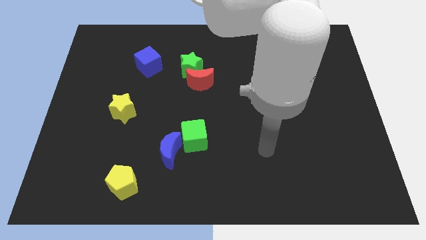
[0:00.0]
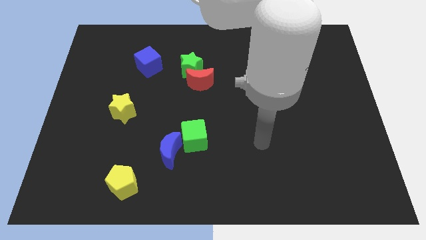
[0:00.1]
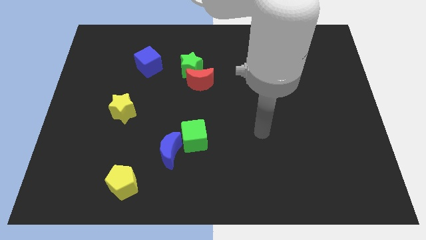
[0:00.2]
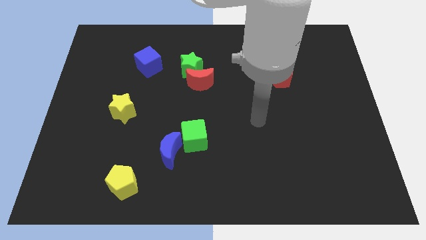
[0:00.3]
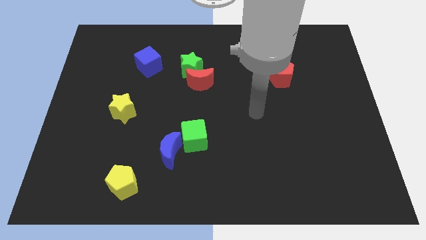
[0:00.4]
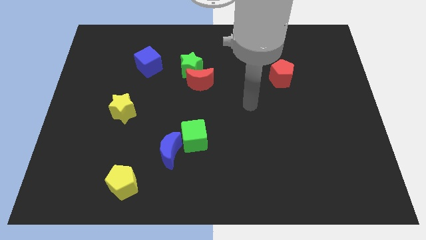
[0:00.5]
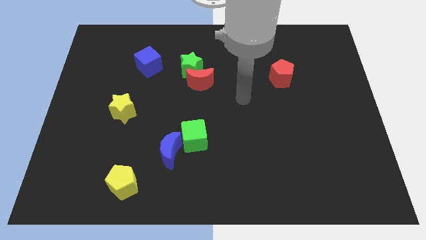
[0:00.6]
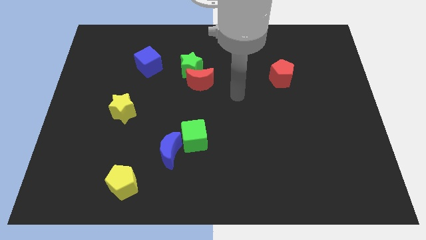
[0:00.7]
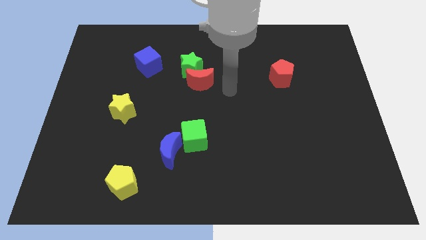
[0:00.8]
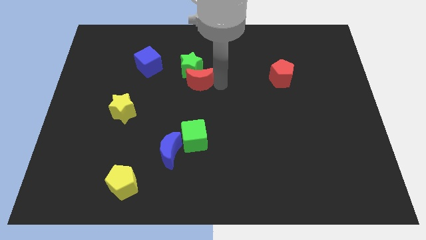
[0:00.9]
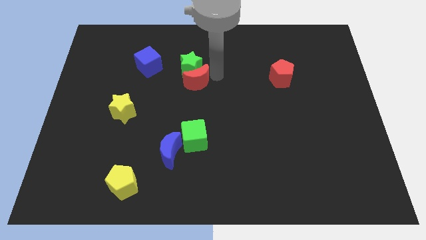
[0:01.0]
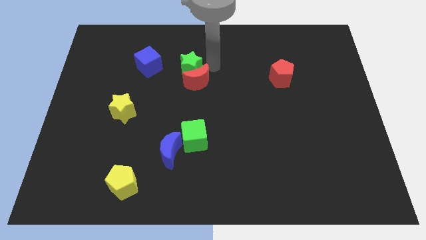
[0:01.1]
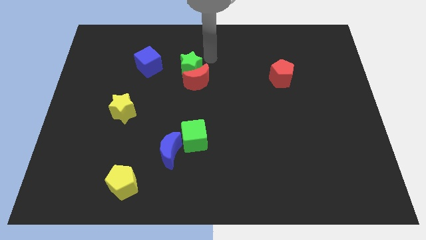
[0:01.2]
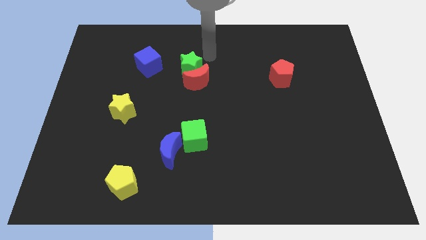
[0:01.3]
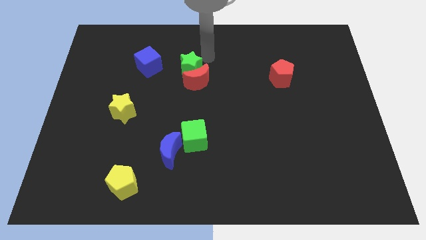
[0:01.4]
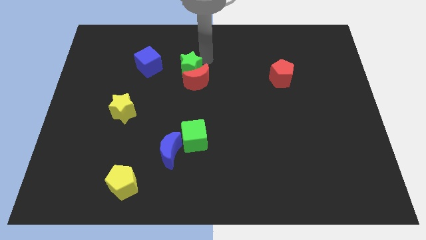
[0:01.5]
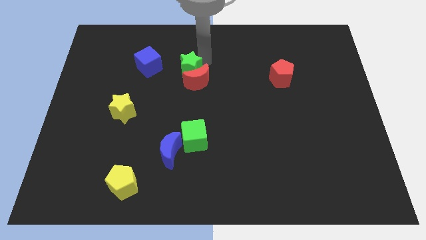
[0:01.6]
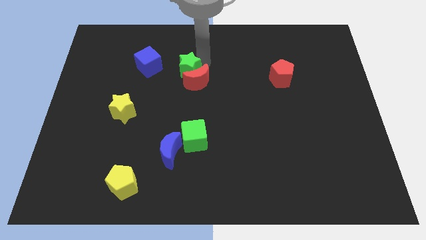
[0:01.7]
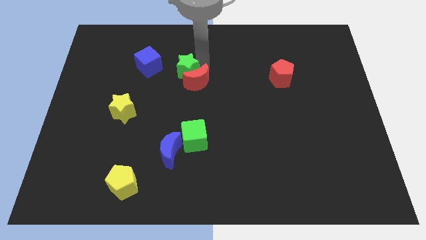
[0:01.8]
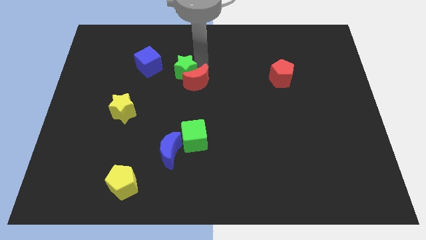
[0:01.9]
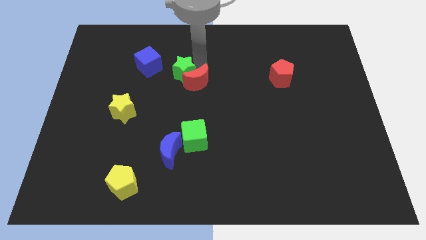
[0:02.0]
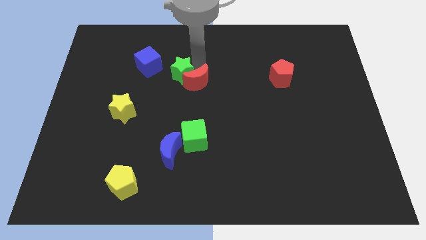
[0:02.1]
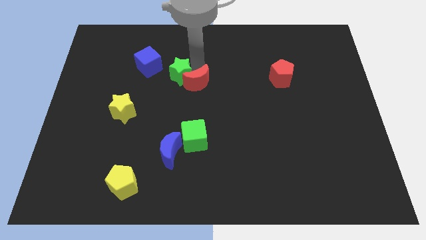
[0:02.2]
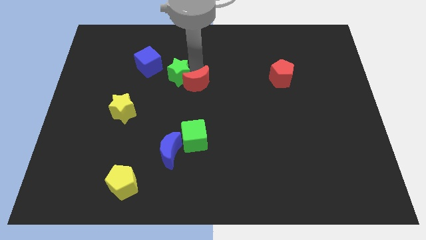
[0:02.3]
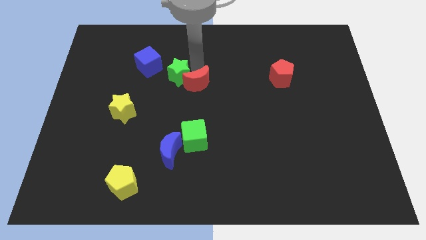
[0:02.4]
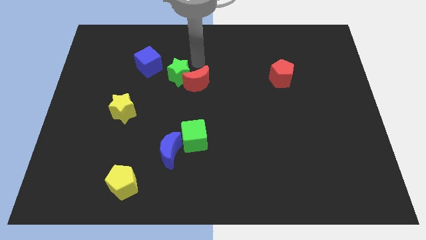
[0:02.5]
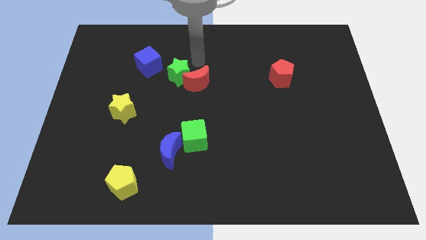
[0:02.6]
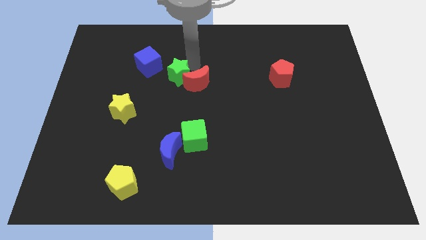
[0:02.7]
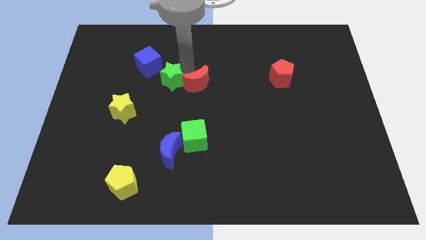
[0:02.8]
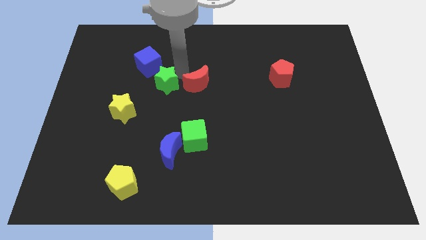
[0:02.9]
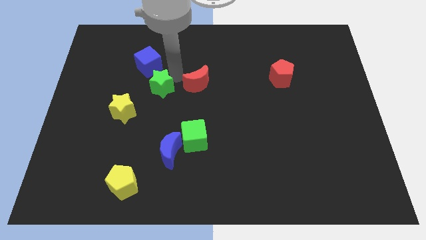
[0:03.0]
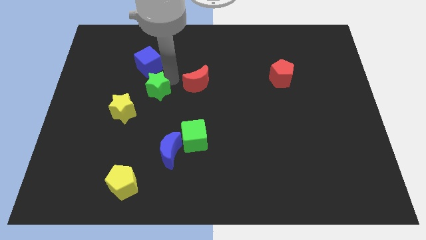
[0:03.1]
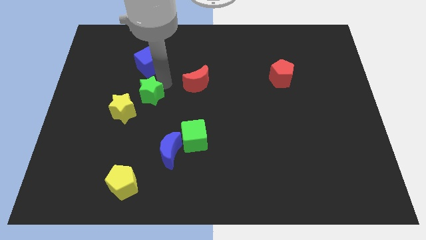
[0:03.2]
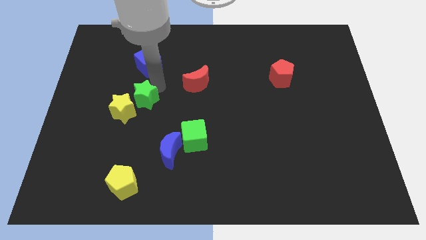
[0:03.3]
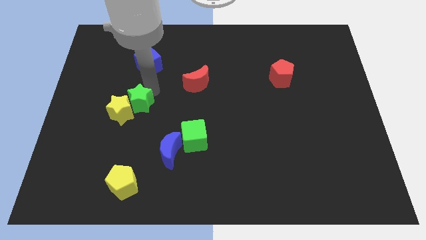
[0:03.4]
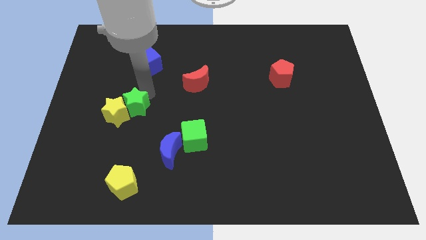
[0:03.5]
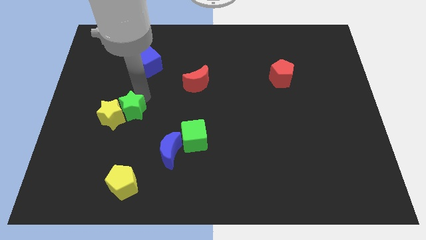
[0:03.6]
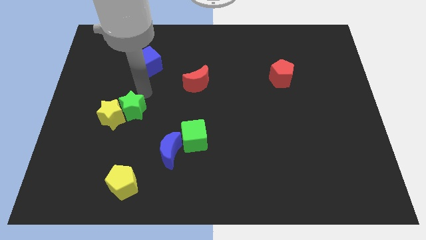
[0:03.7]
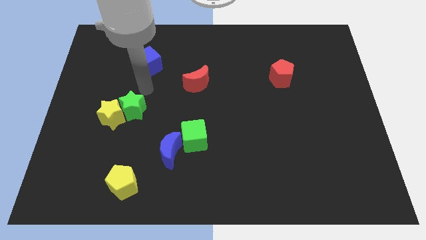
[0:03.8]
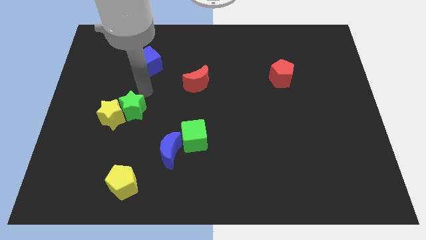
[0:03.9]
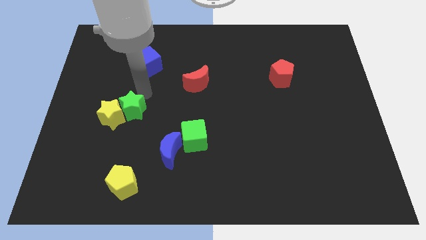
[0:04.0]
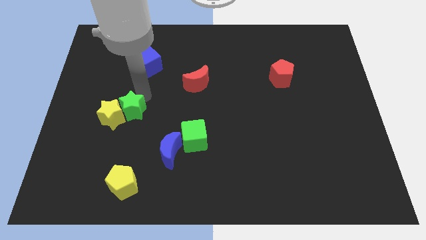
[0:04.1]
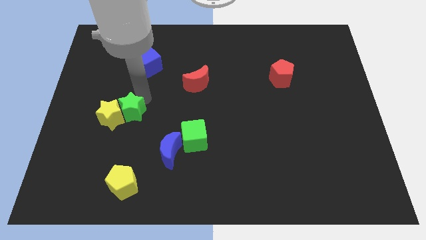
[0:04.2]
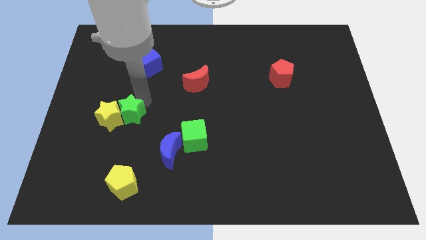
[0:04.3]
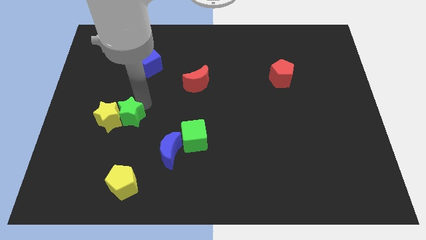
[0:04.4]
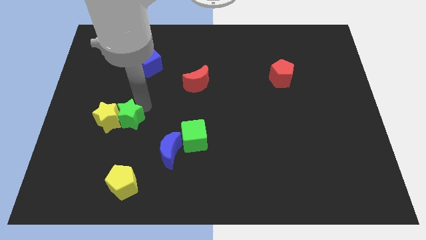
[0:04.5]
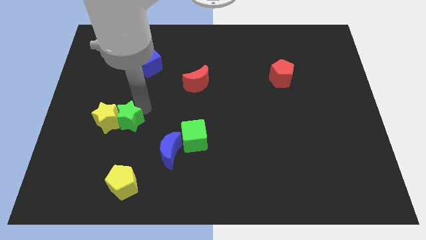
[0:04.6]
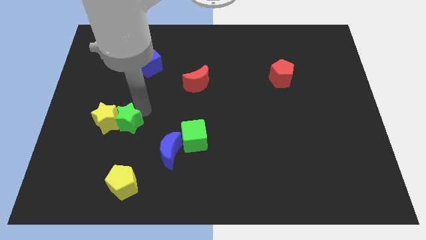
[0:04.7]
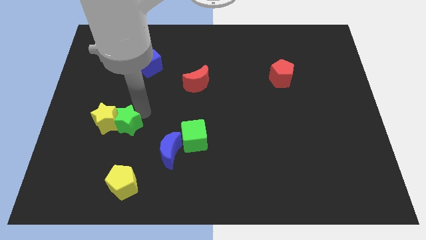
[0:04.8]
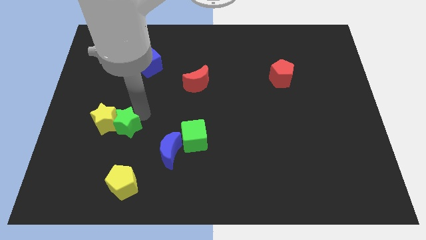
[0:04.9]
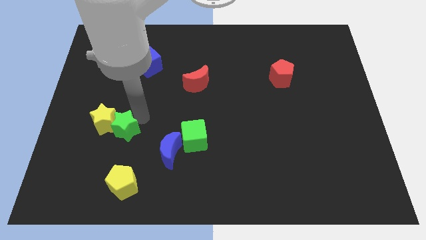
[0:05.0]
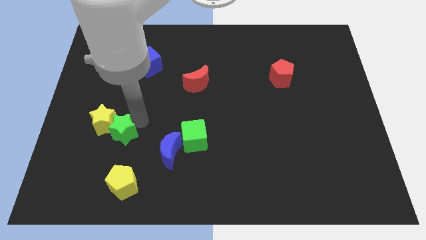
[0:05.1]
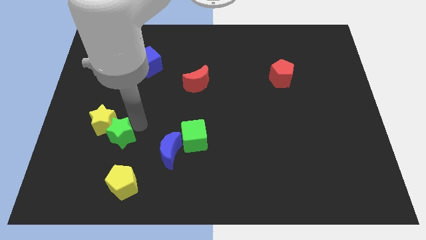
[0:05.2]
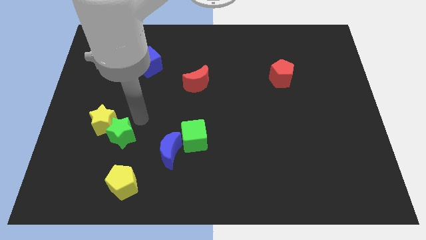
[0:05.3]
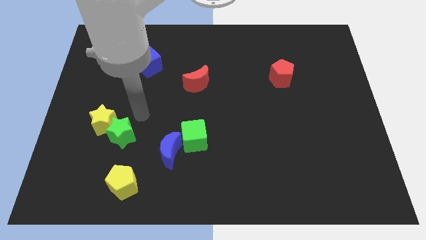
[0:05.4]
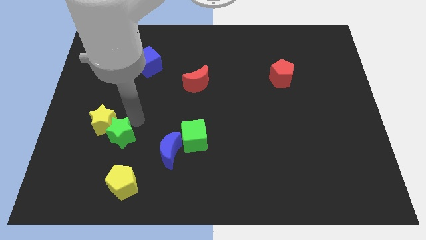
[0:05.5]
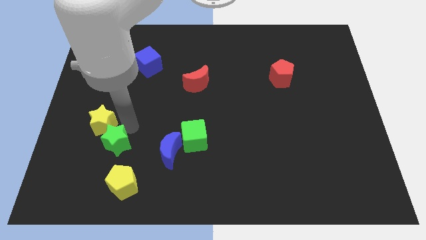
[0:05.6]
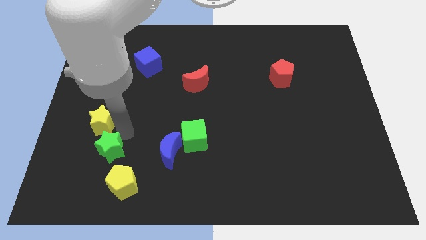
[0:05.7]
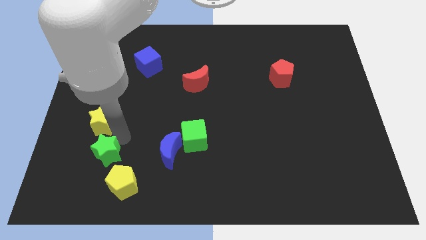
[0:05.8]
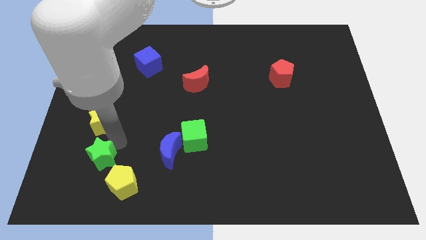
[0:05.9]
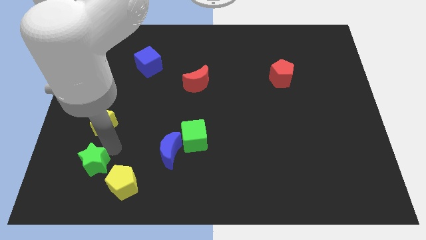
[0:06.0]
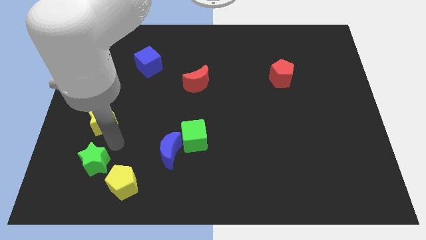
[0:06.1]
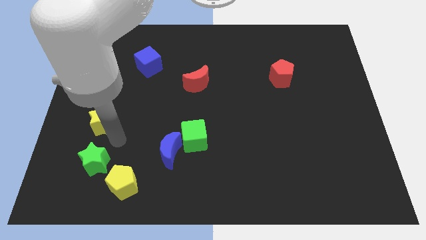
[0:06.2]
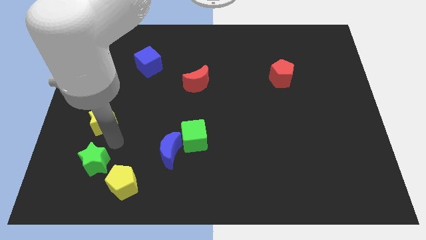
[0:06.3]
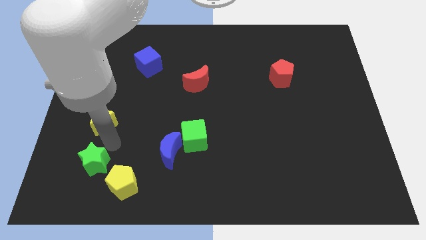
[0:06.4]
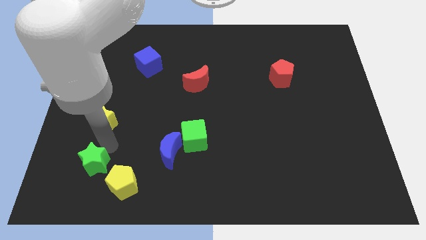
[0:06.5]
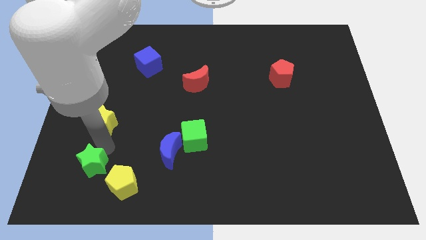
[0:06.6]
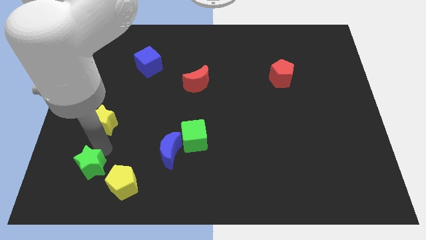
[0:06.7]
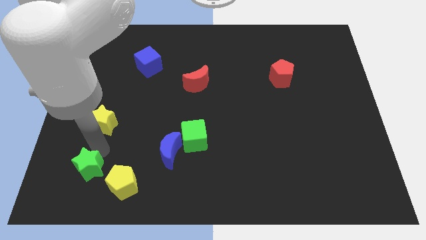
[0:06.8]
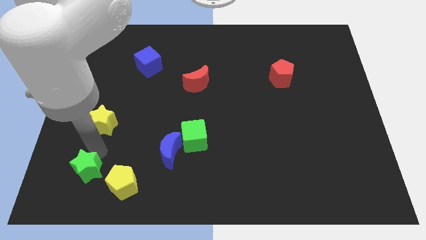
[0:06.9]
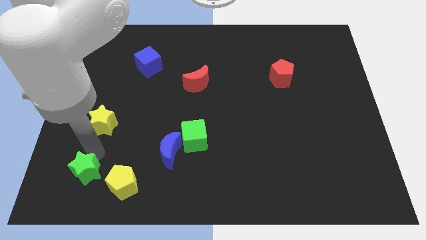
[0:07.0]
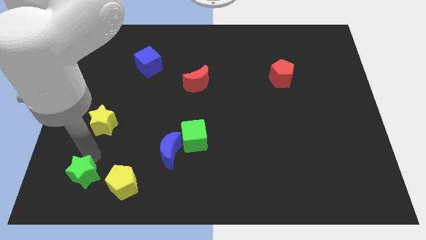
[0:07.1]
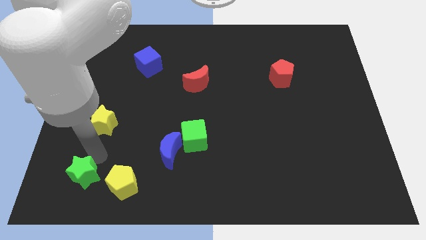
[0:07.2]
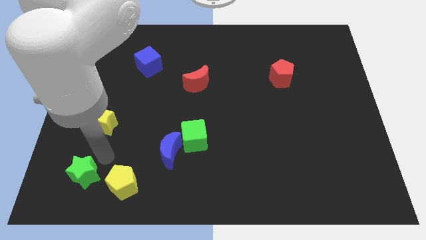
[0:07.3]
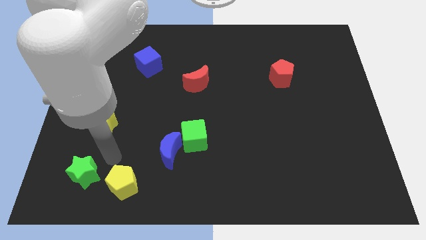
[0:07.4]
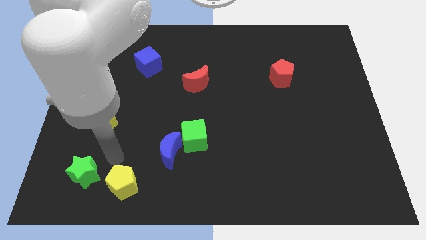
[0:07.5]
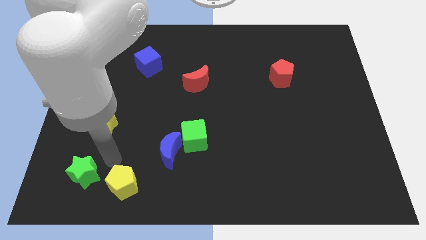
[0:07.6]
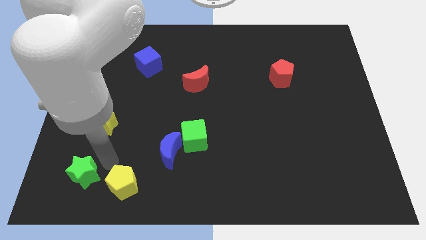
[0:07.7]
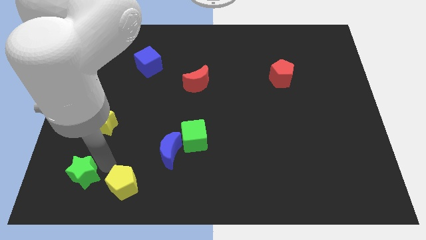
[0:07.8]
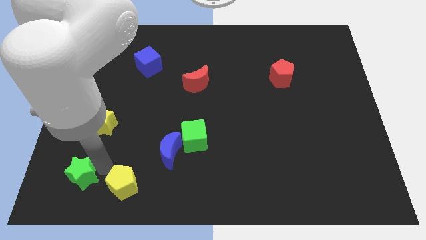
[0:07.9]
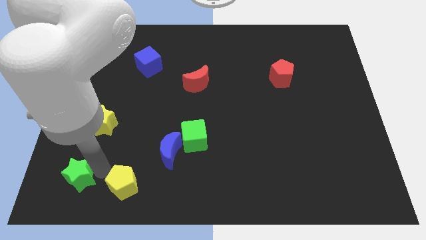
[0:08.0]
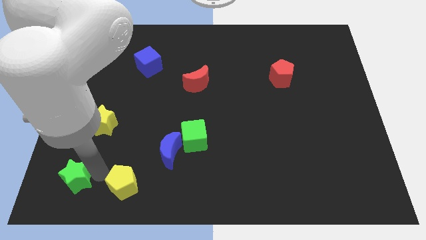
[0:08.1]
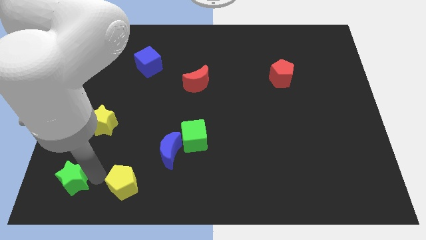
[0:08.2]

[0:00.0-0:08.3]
put the green star to the bottom left corner
